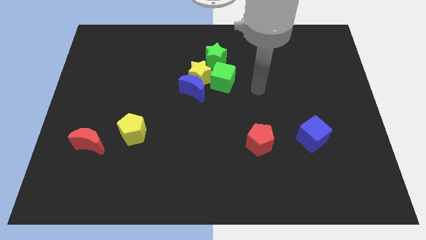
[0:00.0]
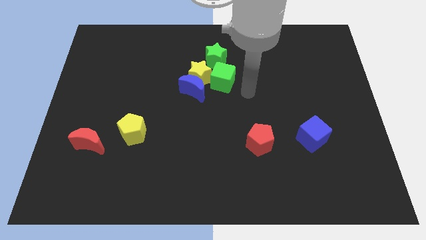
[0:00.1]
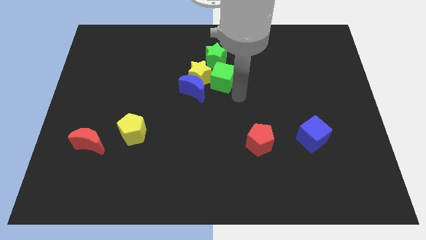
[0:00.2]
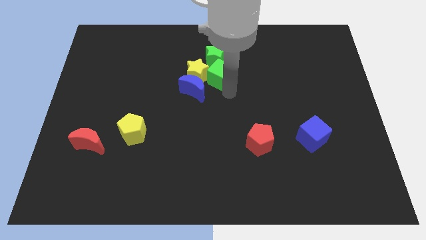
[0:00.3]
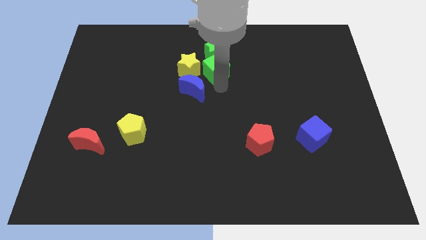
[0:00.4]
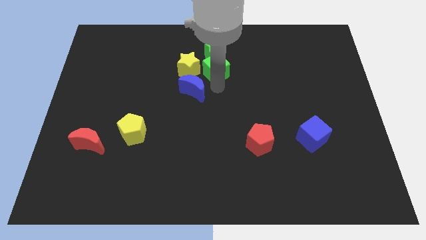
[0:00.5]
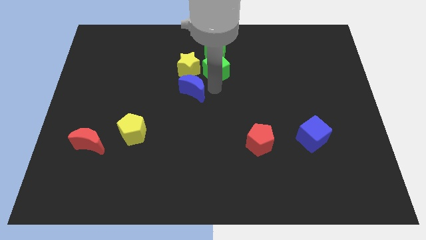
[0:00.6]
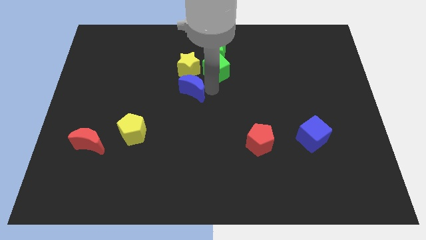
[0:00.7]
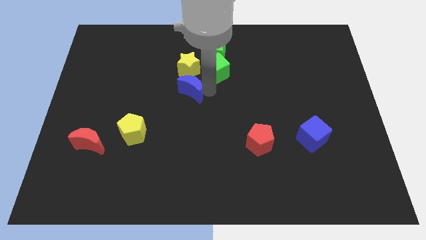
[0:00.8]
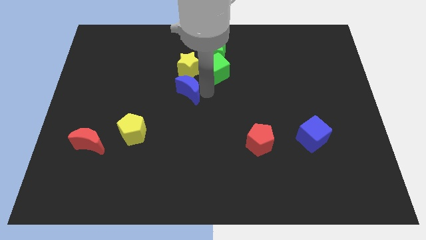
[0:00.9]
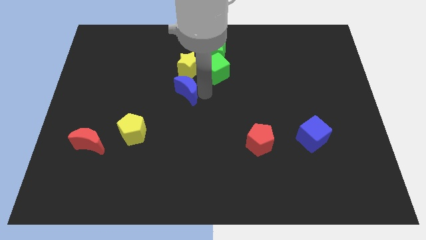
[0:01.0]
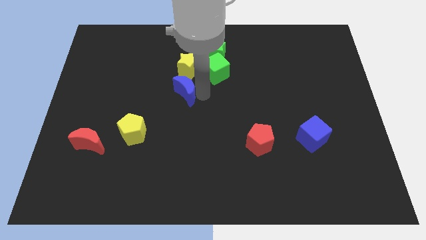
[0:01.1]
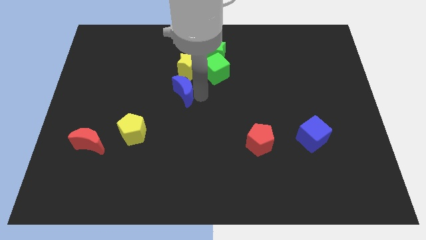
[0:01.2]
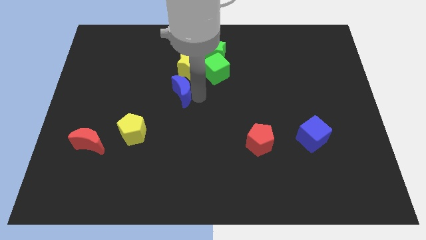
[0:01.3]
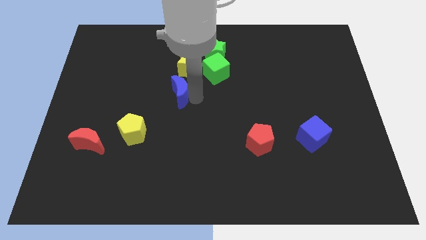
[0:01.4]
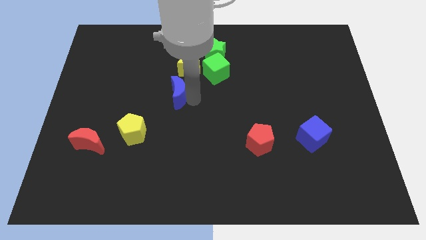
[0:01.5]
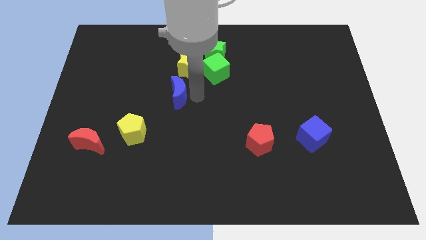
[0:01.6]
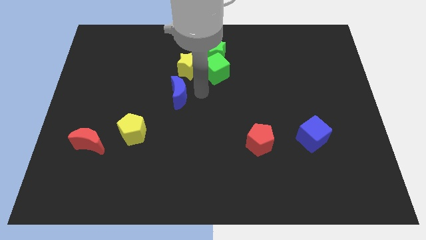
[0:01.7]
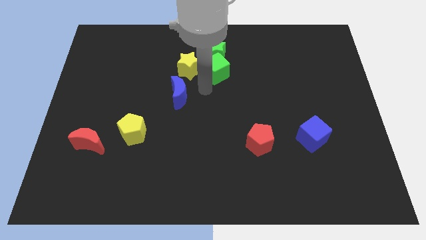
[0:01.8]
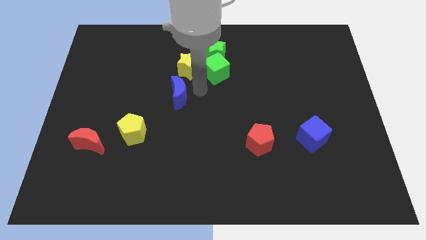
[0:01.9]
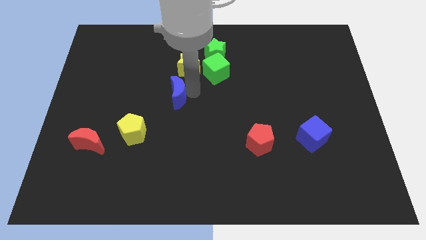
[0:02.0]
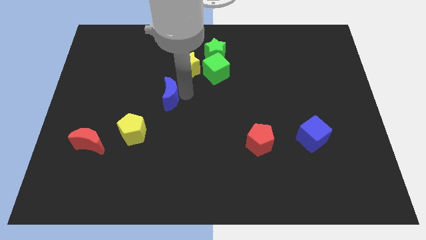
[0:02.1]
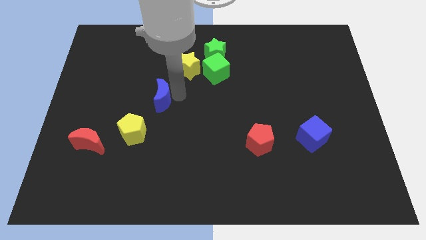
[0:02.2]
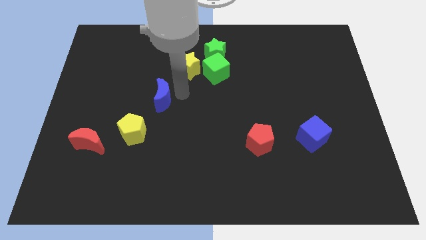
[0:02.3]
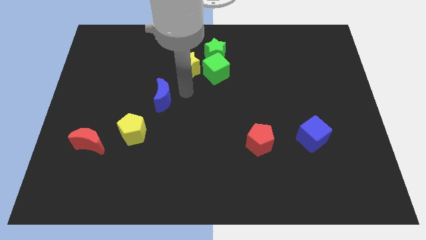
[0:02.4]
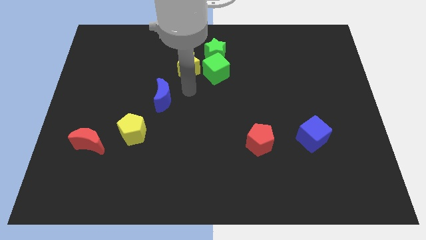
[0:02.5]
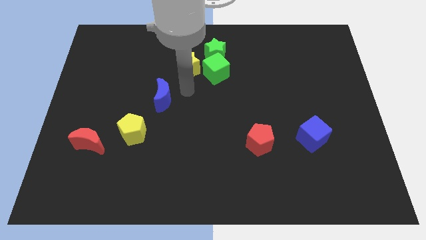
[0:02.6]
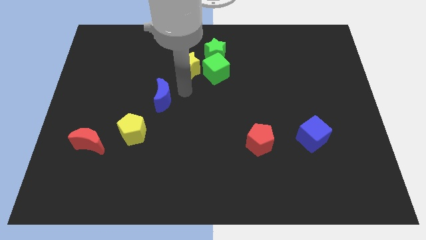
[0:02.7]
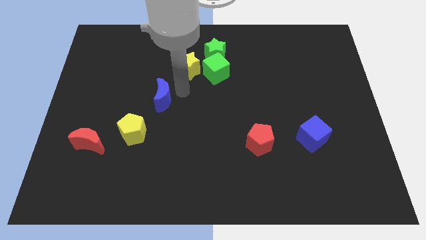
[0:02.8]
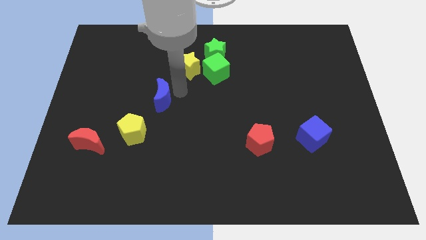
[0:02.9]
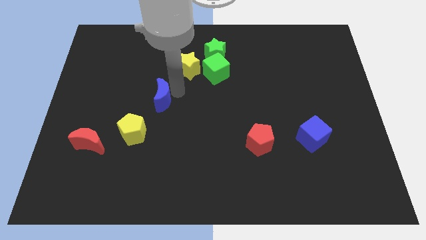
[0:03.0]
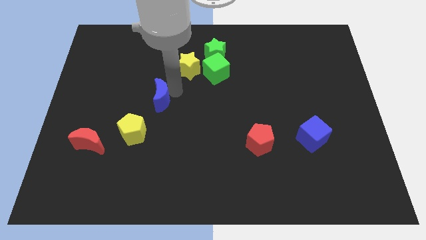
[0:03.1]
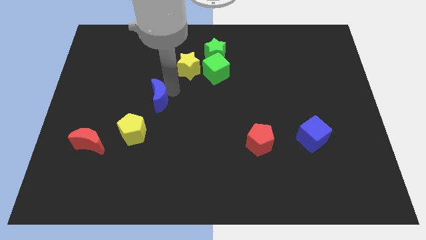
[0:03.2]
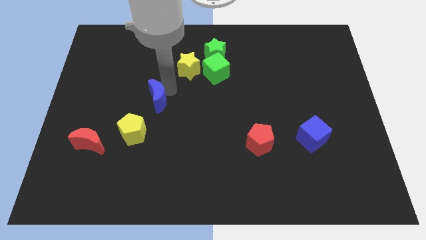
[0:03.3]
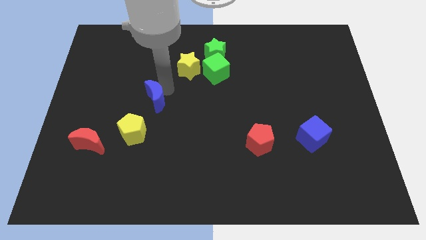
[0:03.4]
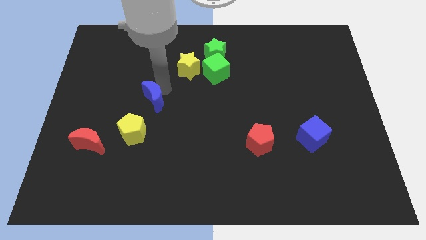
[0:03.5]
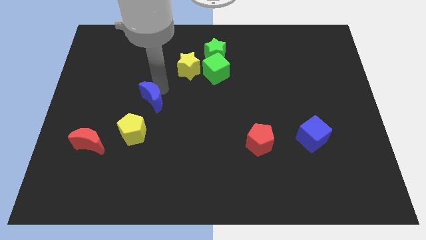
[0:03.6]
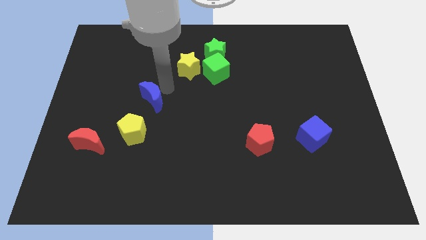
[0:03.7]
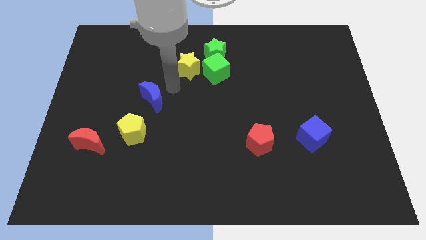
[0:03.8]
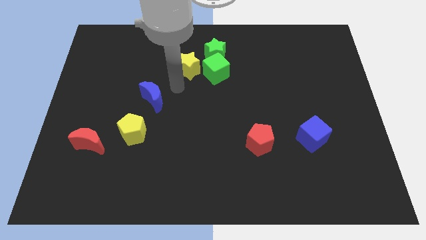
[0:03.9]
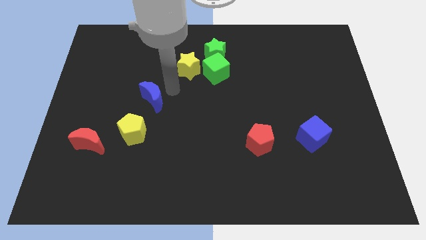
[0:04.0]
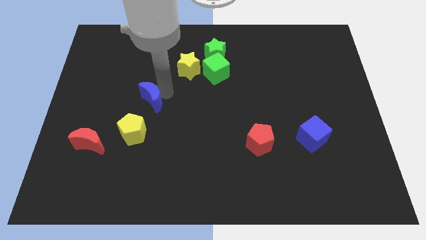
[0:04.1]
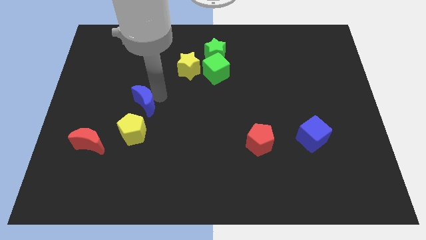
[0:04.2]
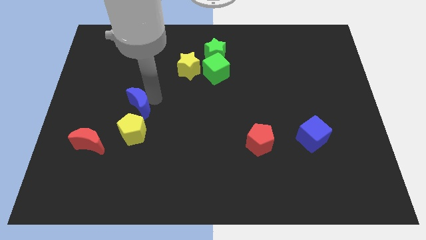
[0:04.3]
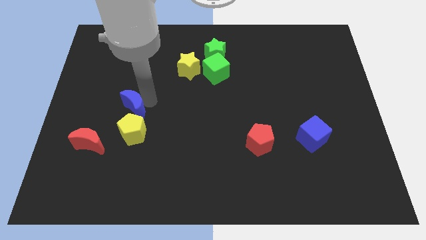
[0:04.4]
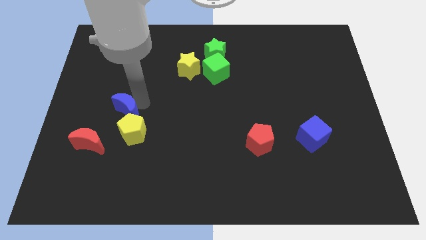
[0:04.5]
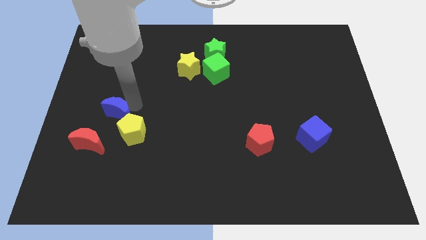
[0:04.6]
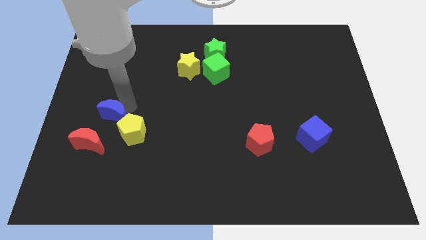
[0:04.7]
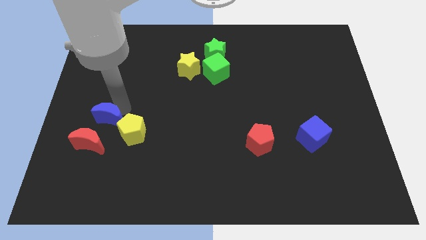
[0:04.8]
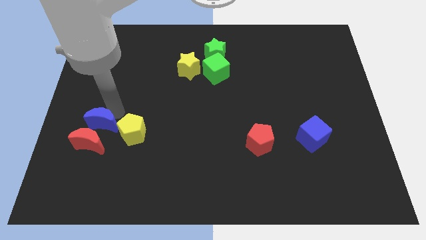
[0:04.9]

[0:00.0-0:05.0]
move the blue moon to the red moon

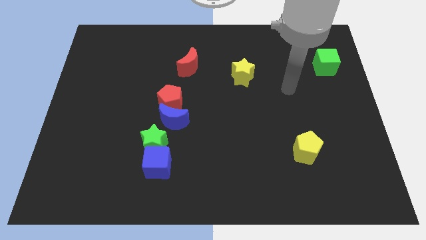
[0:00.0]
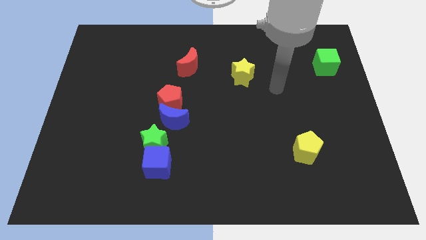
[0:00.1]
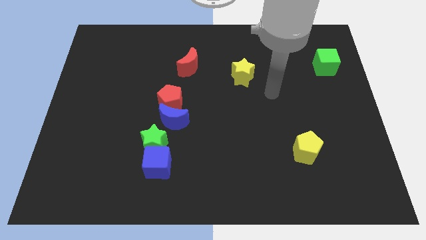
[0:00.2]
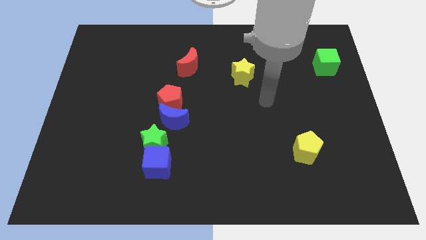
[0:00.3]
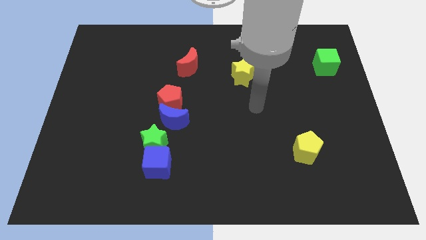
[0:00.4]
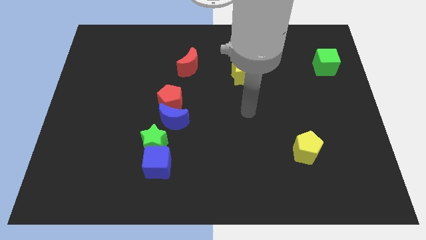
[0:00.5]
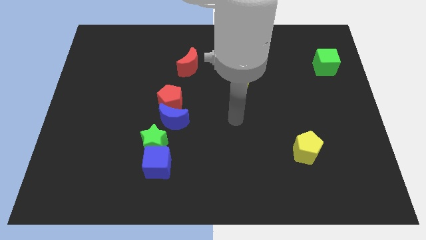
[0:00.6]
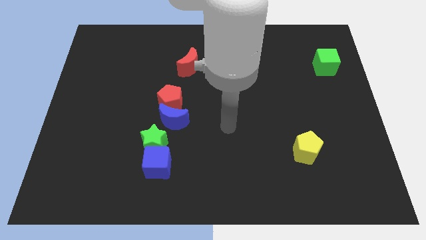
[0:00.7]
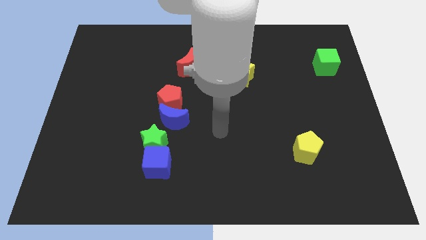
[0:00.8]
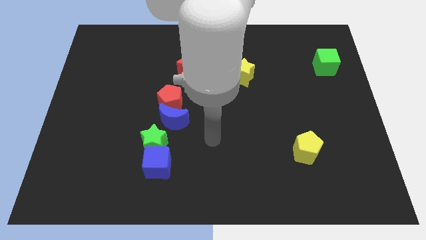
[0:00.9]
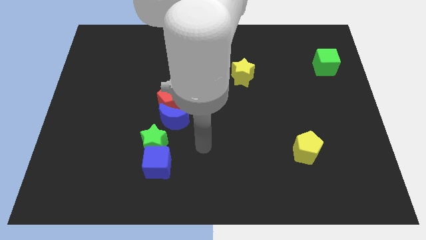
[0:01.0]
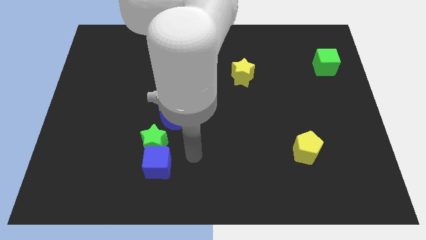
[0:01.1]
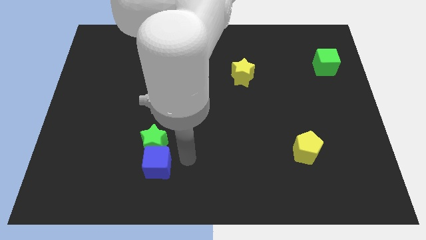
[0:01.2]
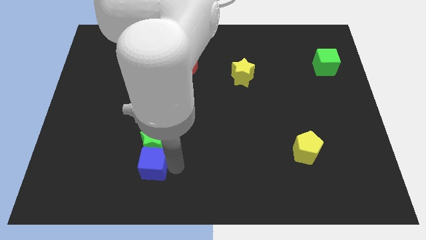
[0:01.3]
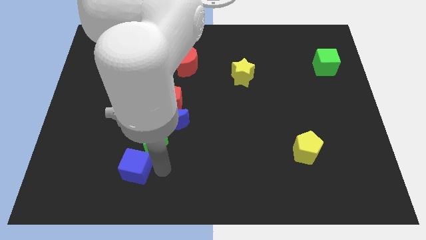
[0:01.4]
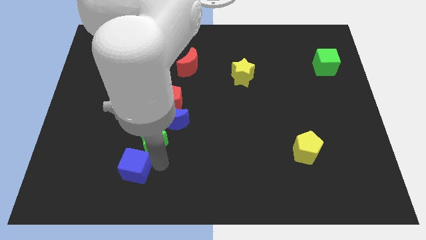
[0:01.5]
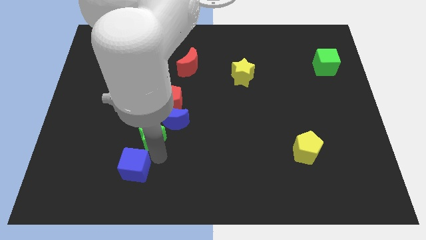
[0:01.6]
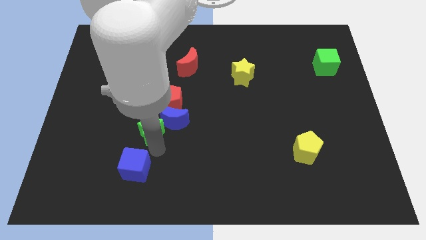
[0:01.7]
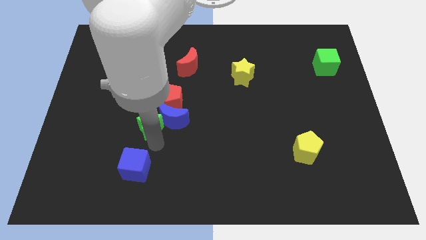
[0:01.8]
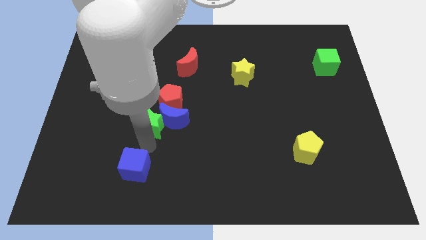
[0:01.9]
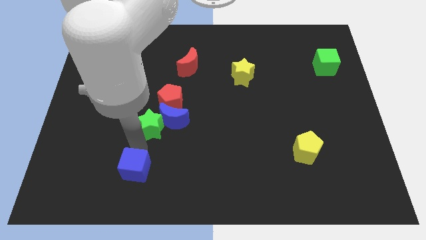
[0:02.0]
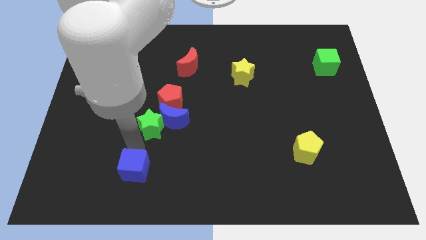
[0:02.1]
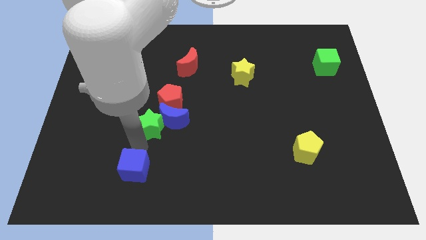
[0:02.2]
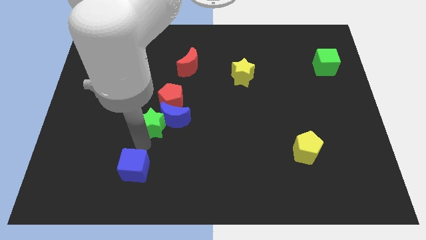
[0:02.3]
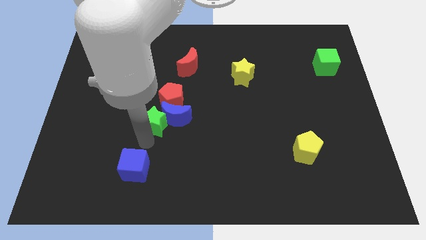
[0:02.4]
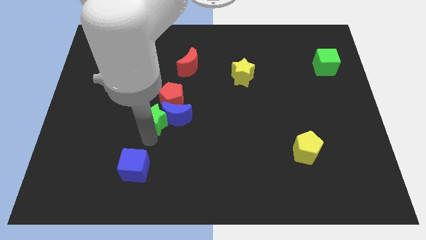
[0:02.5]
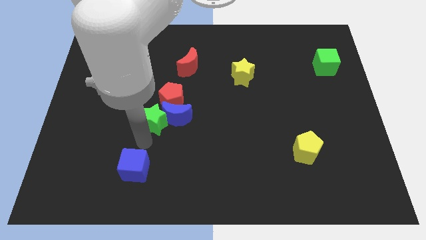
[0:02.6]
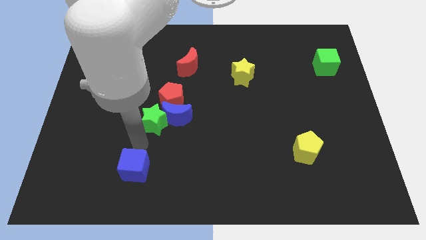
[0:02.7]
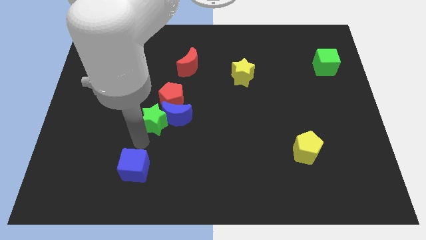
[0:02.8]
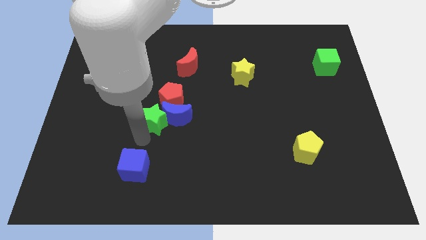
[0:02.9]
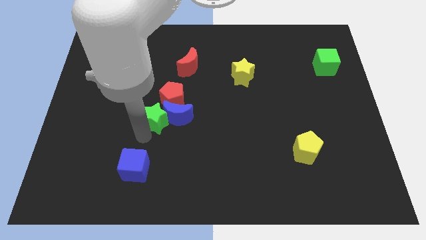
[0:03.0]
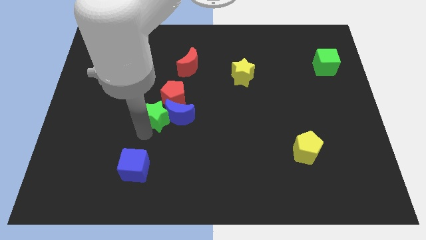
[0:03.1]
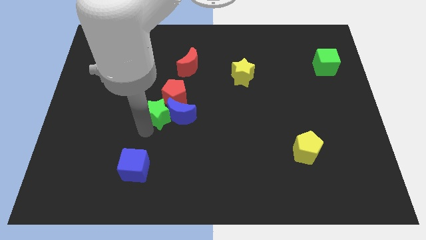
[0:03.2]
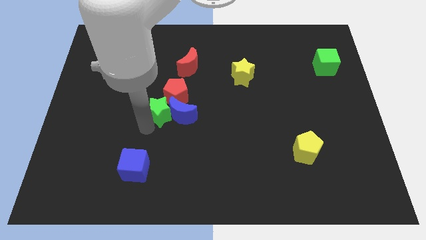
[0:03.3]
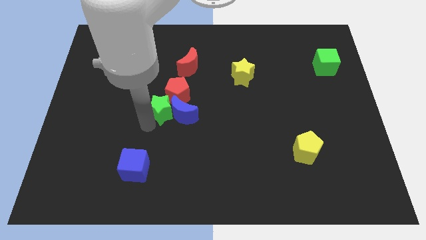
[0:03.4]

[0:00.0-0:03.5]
slide the green star close to the red pentagon
